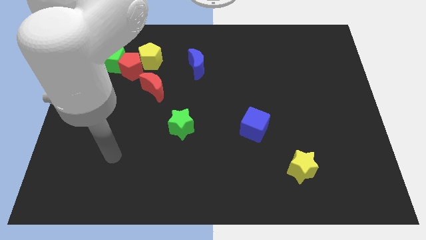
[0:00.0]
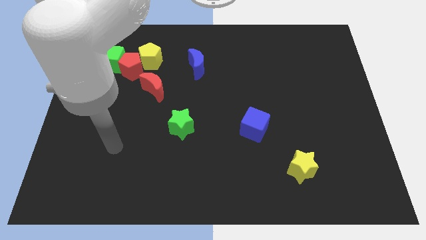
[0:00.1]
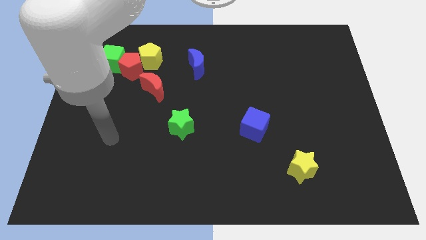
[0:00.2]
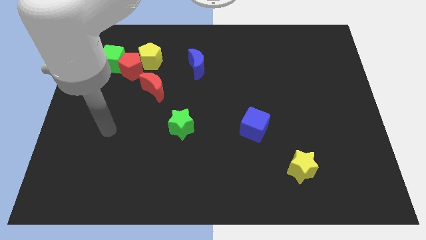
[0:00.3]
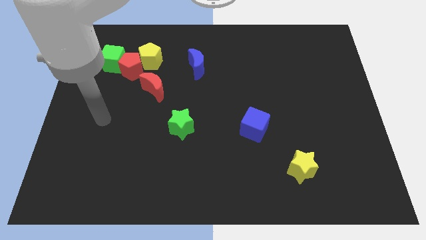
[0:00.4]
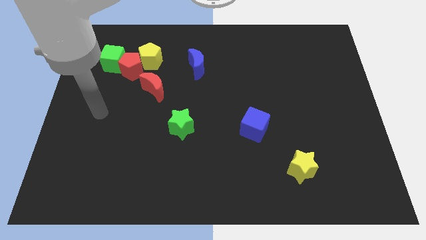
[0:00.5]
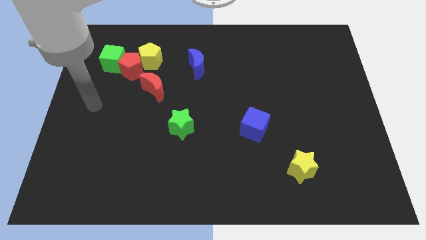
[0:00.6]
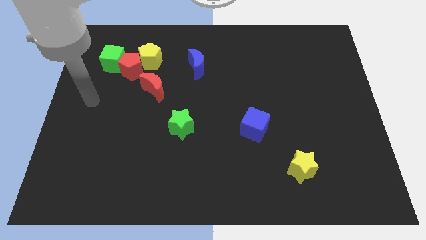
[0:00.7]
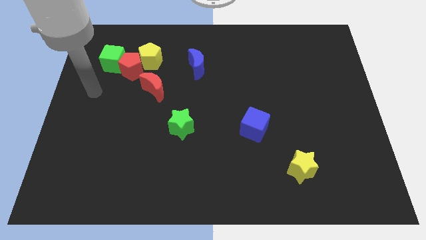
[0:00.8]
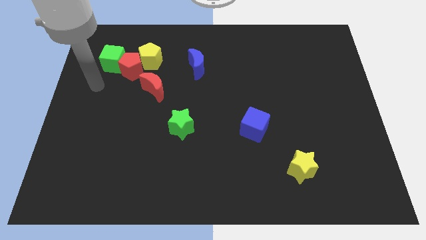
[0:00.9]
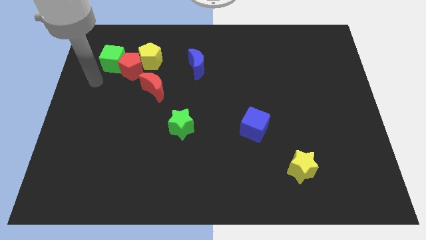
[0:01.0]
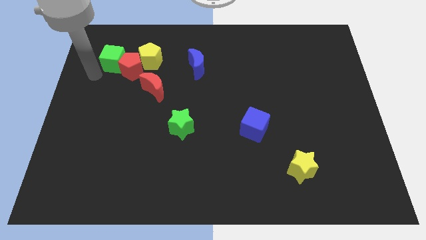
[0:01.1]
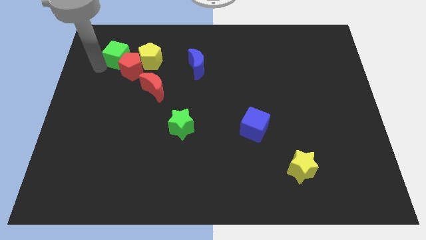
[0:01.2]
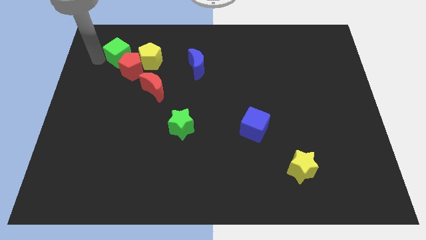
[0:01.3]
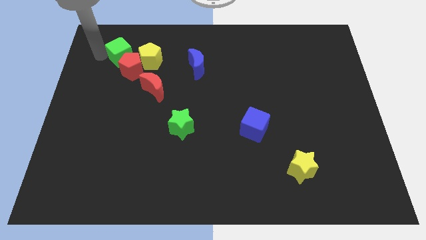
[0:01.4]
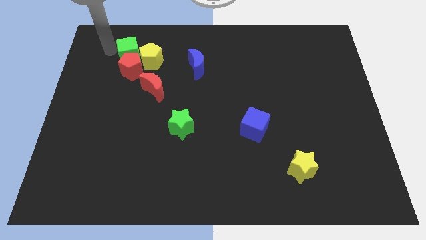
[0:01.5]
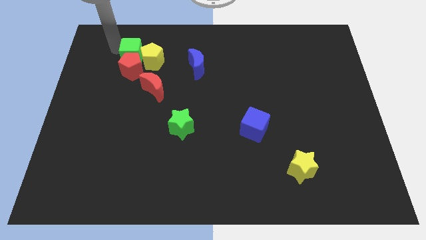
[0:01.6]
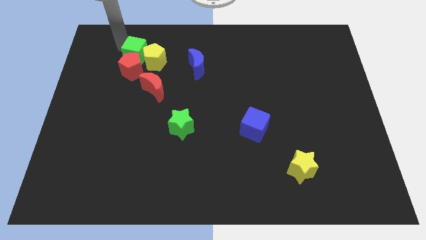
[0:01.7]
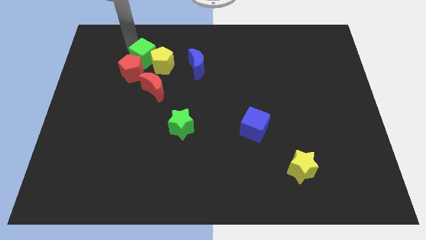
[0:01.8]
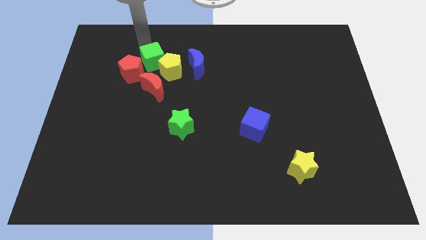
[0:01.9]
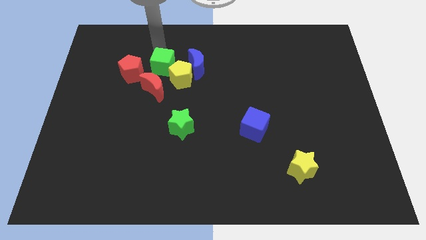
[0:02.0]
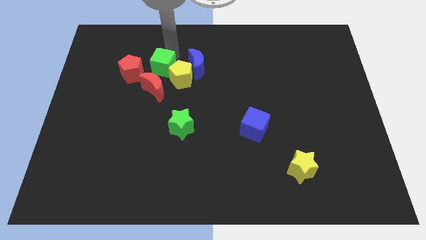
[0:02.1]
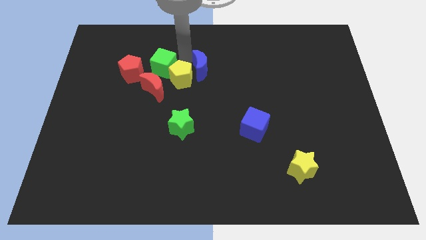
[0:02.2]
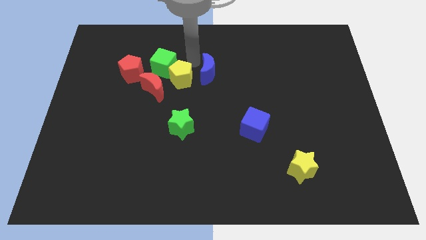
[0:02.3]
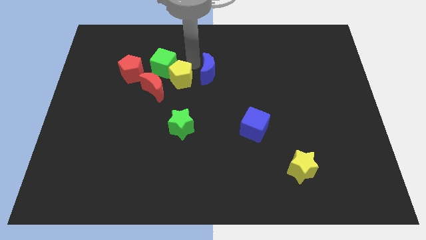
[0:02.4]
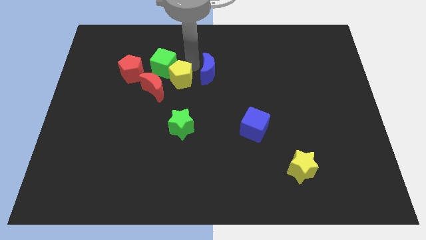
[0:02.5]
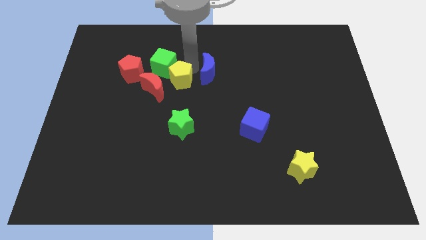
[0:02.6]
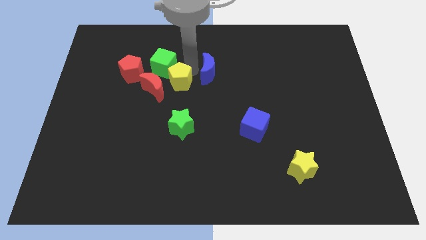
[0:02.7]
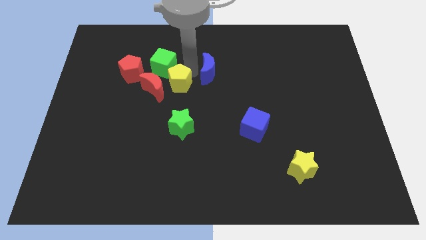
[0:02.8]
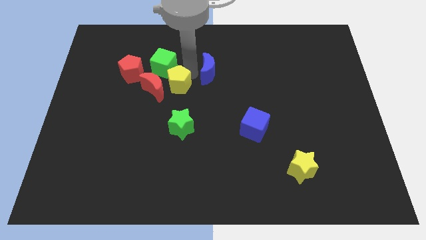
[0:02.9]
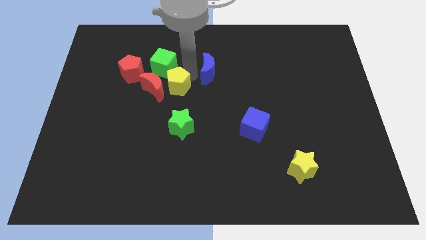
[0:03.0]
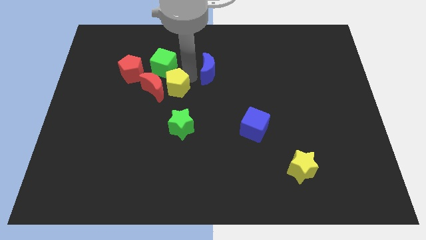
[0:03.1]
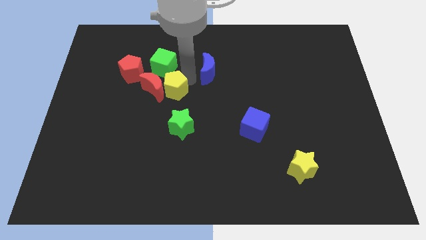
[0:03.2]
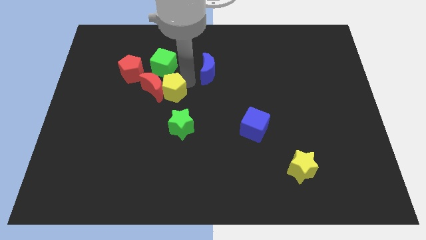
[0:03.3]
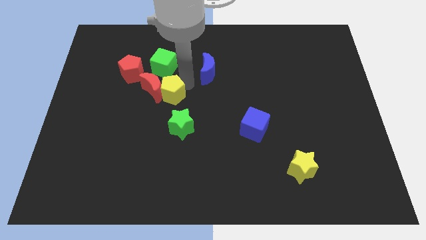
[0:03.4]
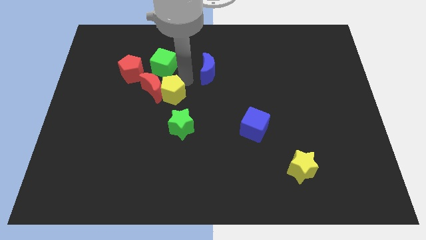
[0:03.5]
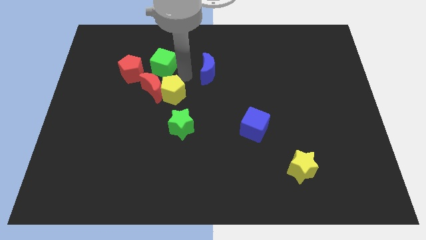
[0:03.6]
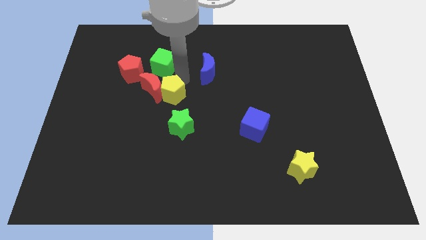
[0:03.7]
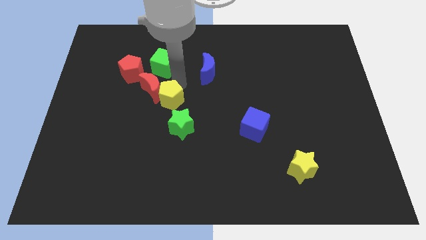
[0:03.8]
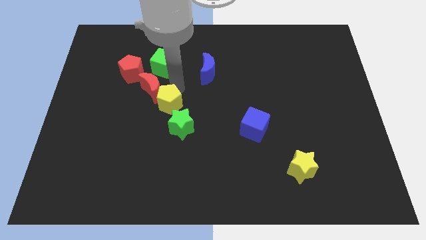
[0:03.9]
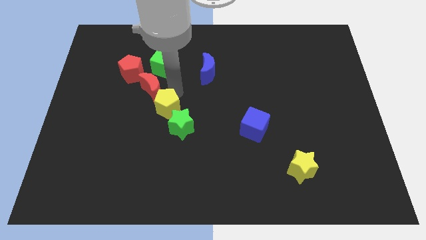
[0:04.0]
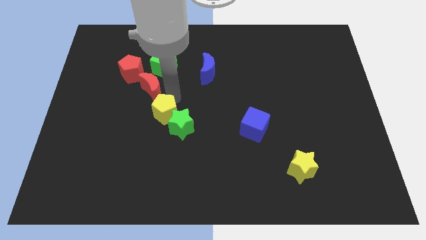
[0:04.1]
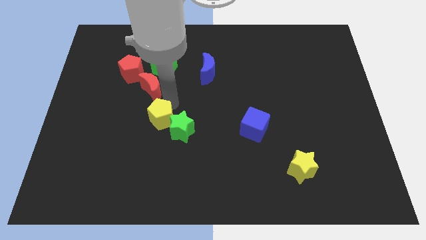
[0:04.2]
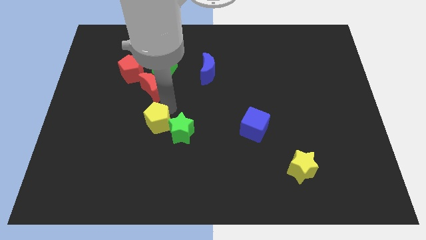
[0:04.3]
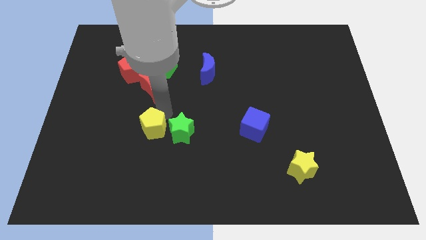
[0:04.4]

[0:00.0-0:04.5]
push the yellow pentagon down

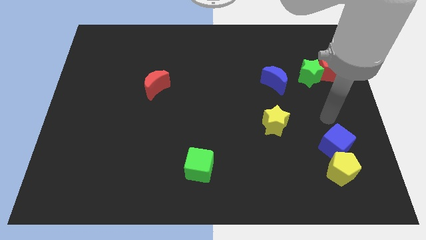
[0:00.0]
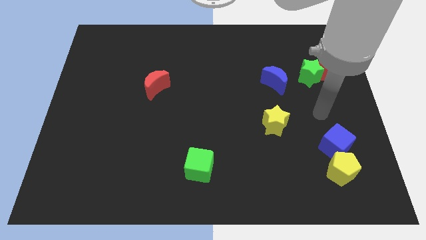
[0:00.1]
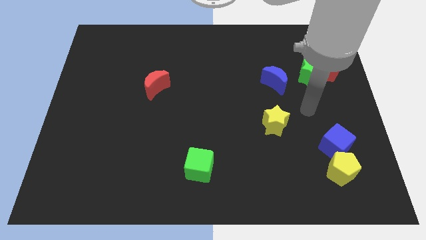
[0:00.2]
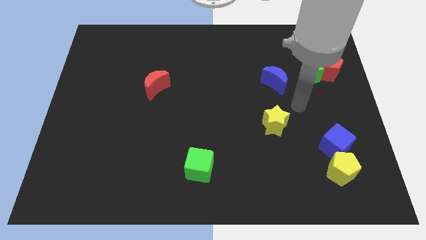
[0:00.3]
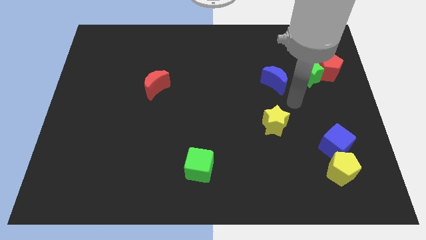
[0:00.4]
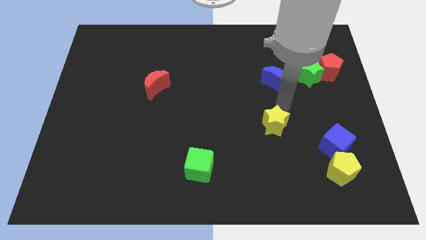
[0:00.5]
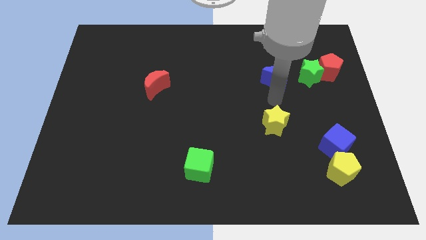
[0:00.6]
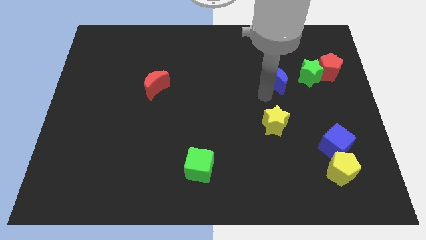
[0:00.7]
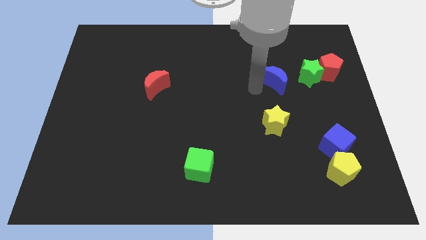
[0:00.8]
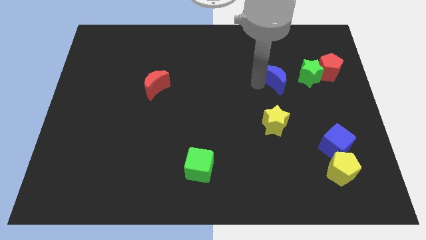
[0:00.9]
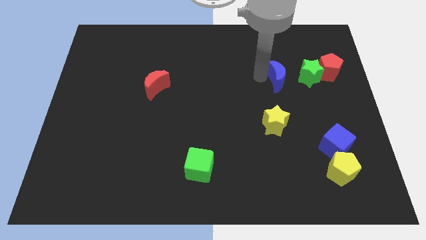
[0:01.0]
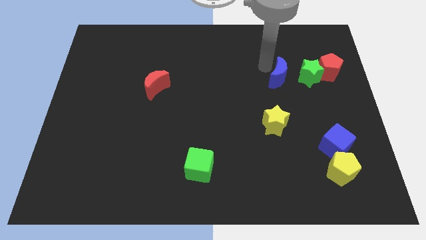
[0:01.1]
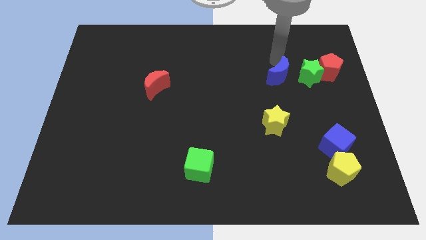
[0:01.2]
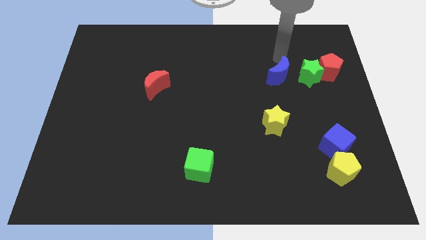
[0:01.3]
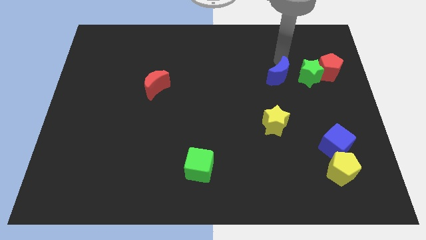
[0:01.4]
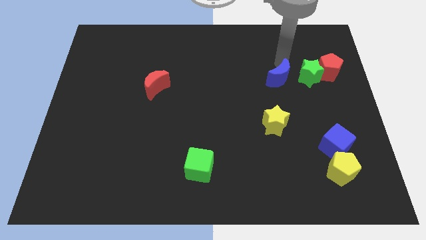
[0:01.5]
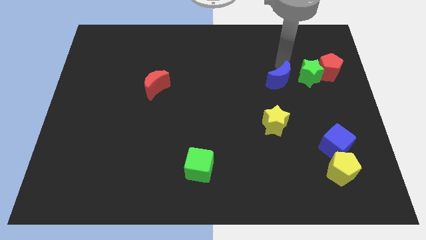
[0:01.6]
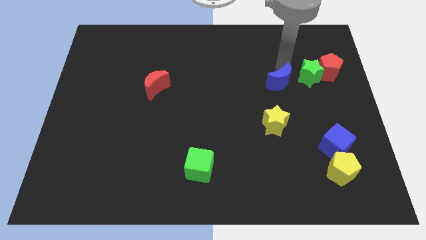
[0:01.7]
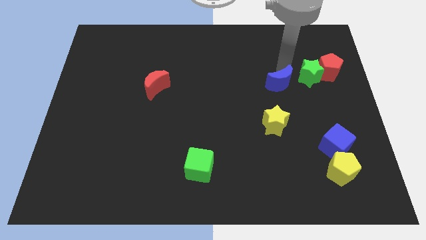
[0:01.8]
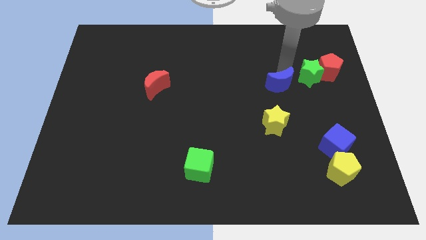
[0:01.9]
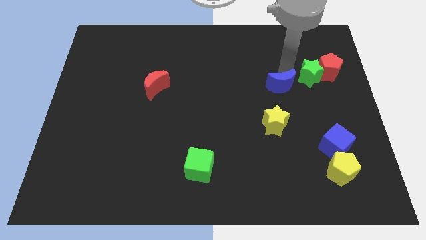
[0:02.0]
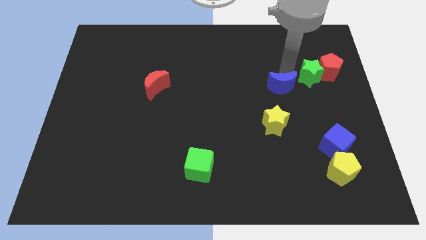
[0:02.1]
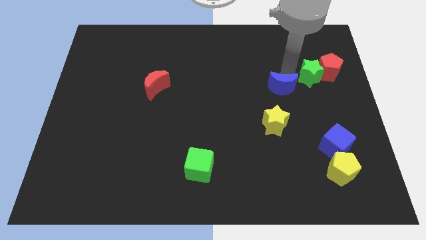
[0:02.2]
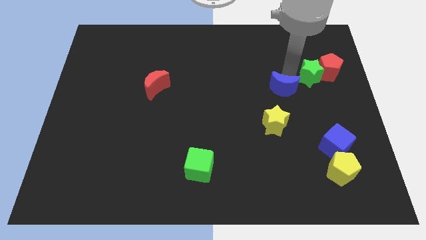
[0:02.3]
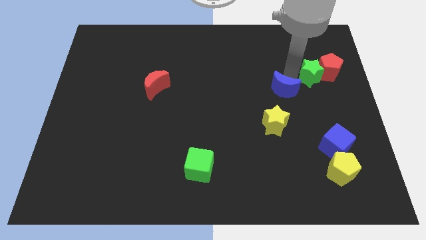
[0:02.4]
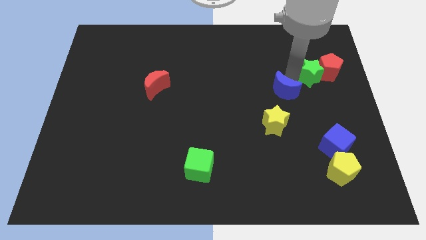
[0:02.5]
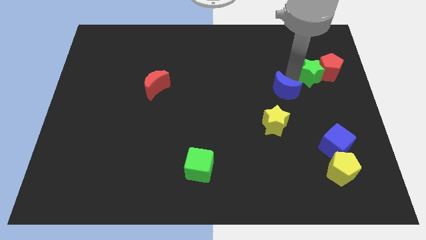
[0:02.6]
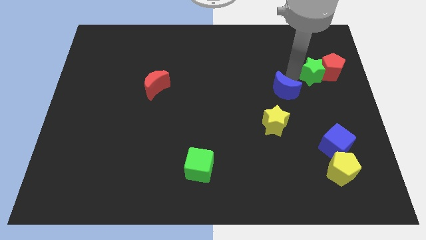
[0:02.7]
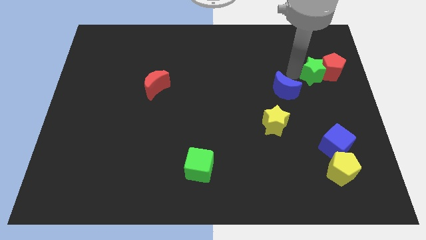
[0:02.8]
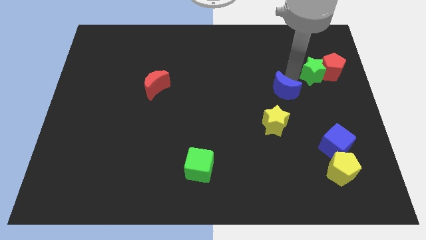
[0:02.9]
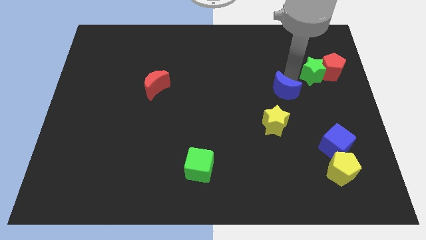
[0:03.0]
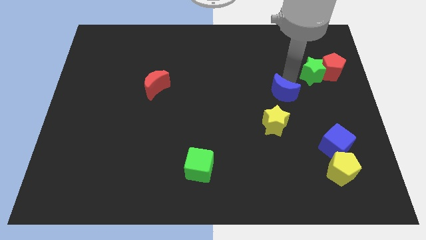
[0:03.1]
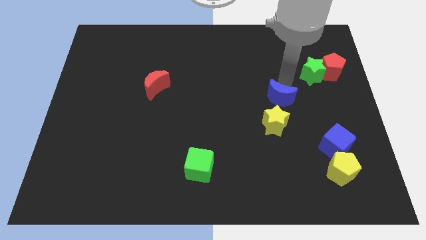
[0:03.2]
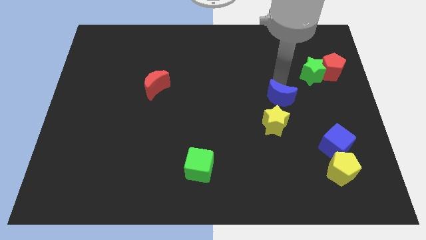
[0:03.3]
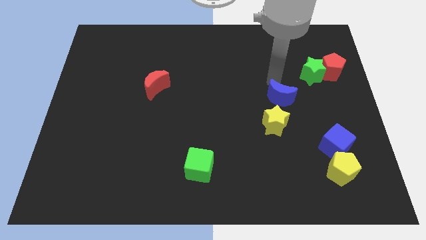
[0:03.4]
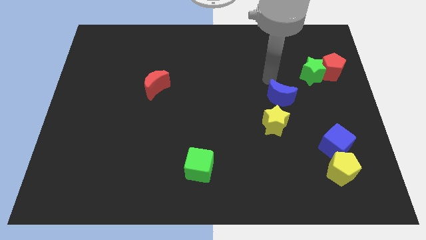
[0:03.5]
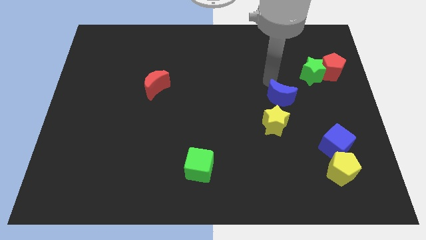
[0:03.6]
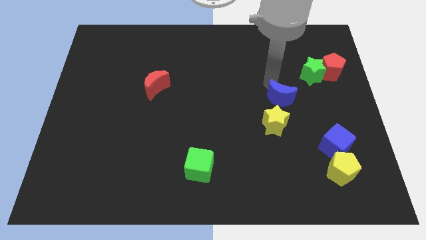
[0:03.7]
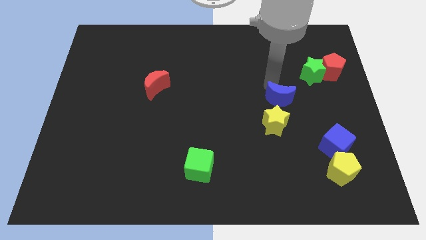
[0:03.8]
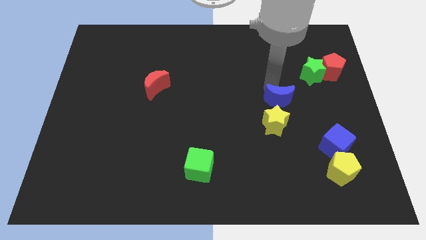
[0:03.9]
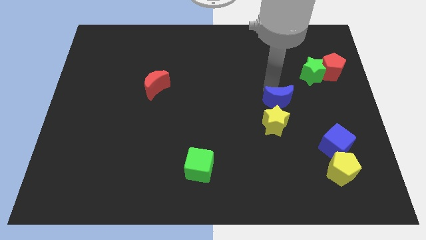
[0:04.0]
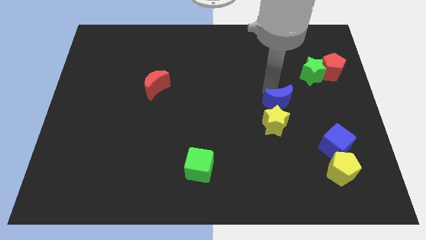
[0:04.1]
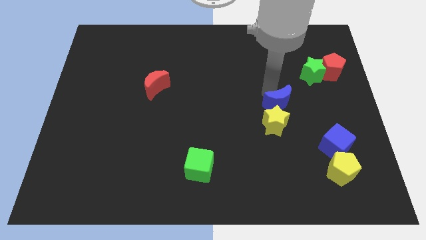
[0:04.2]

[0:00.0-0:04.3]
push the blue moon downwards a bit
